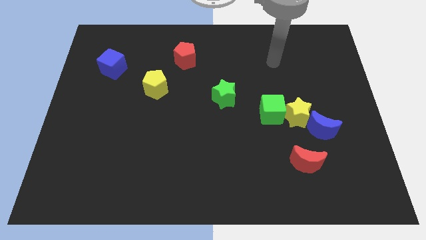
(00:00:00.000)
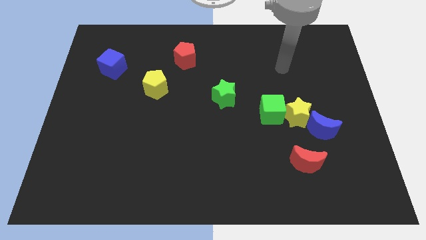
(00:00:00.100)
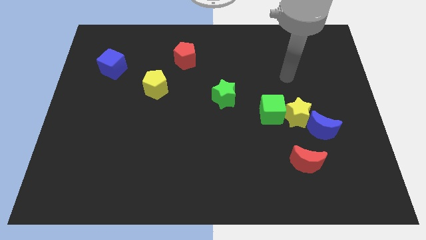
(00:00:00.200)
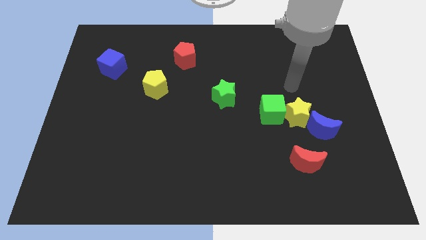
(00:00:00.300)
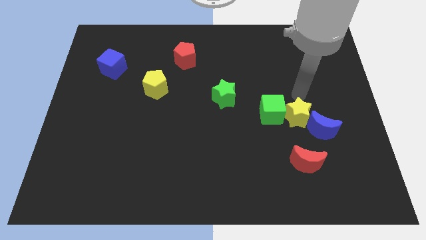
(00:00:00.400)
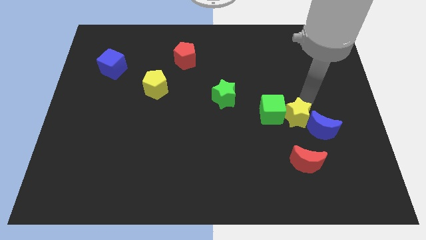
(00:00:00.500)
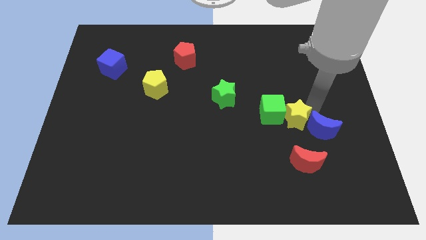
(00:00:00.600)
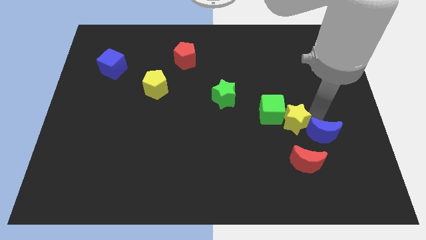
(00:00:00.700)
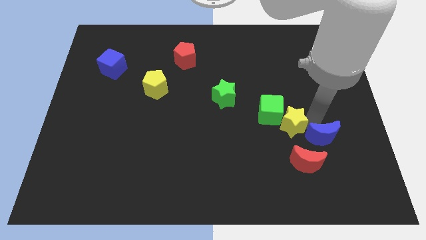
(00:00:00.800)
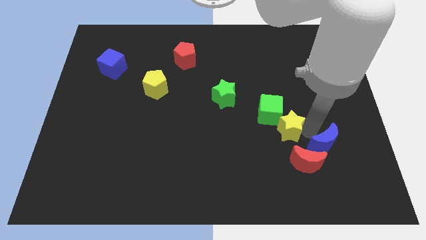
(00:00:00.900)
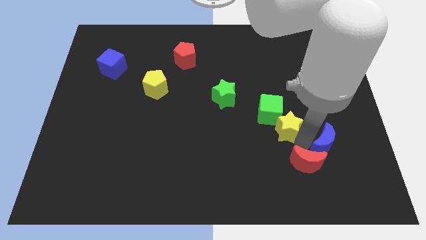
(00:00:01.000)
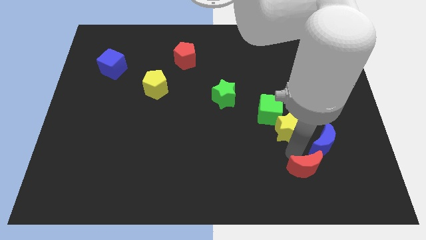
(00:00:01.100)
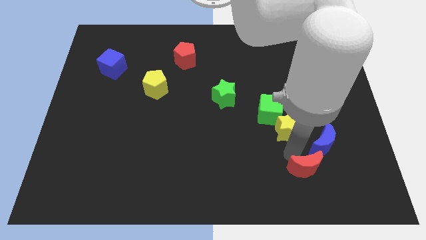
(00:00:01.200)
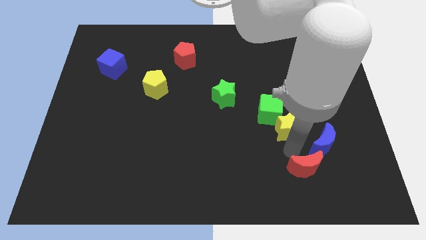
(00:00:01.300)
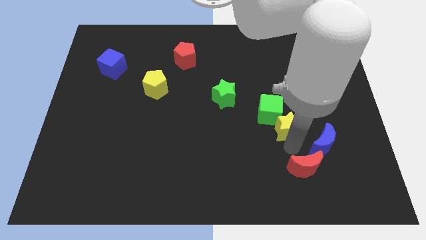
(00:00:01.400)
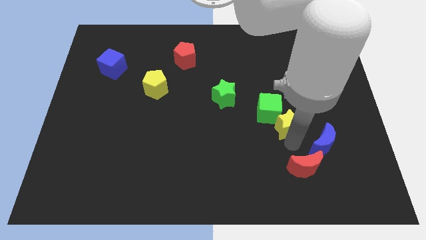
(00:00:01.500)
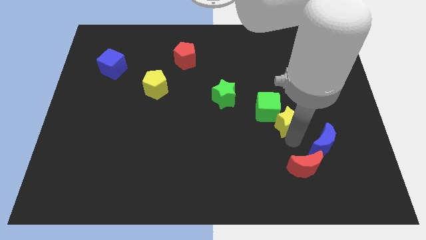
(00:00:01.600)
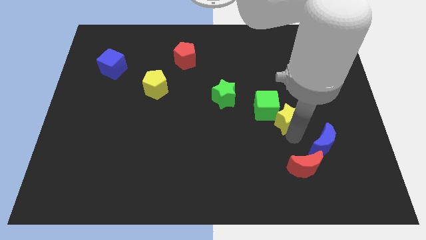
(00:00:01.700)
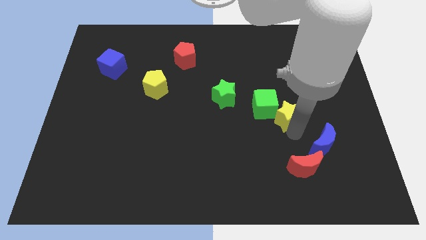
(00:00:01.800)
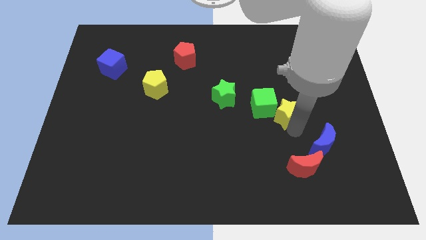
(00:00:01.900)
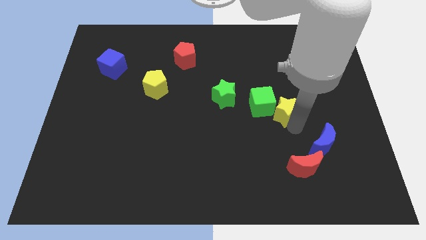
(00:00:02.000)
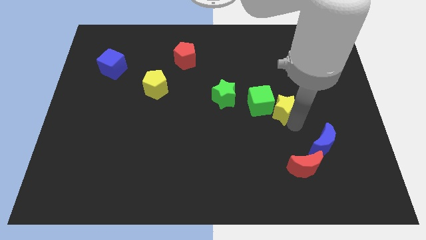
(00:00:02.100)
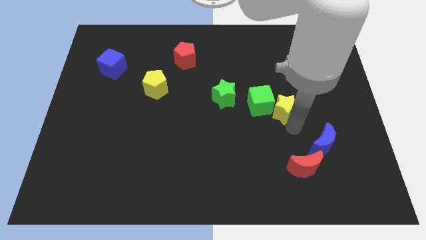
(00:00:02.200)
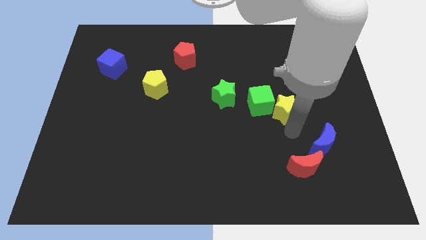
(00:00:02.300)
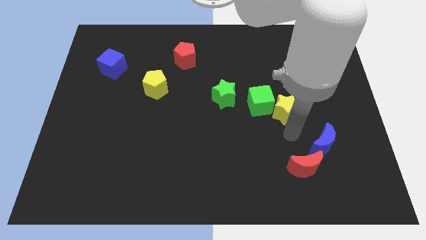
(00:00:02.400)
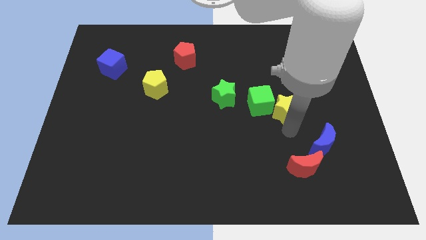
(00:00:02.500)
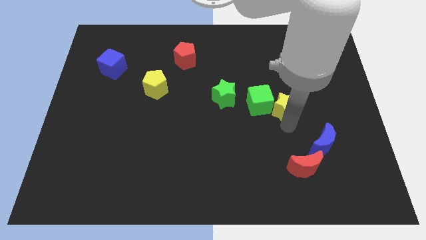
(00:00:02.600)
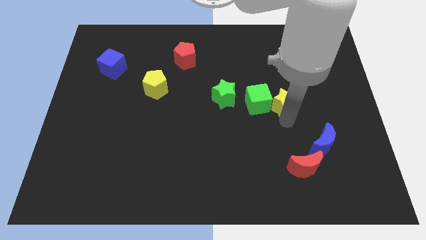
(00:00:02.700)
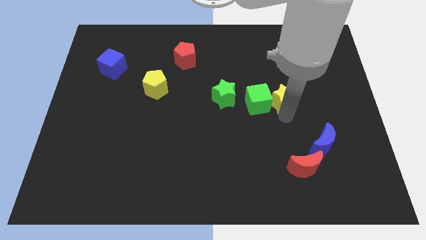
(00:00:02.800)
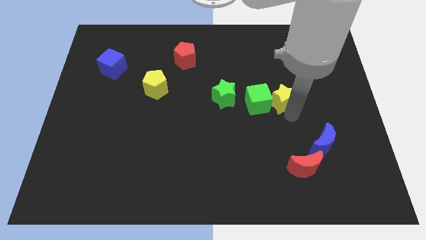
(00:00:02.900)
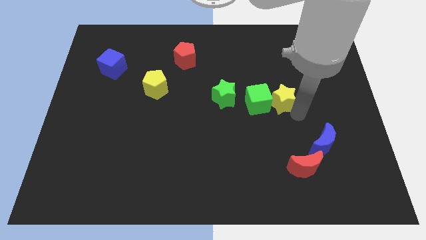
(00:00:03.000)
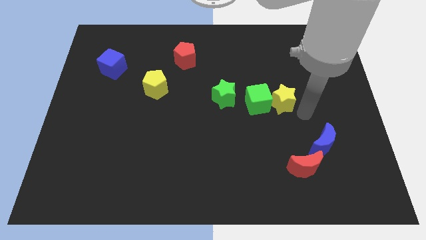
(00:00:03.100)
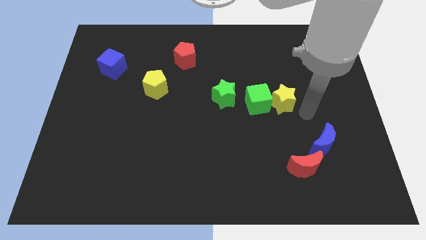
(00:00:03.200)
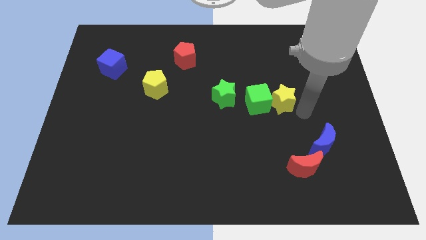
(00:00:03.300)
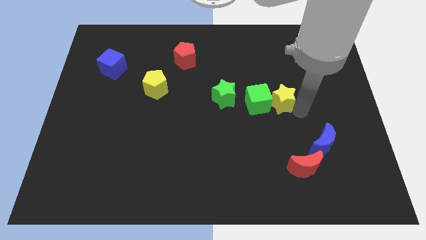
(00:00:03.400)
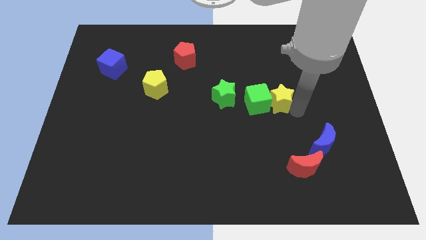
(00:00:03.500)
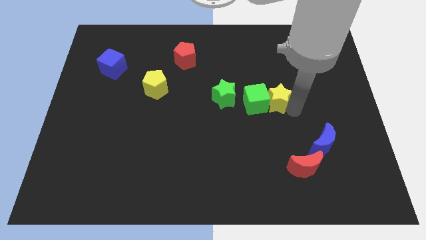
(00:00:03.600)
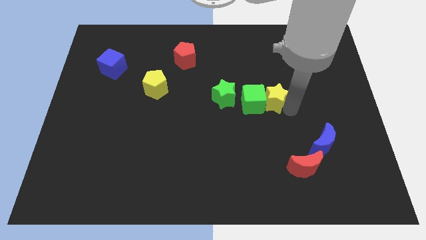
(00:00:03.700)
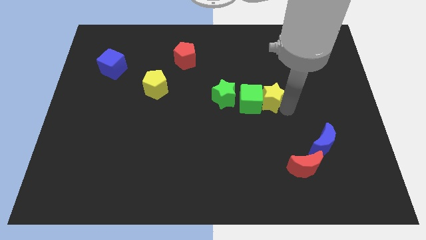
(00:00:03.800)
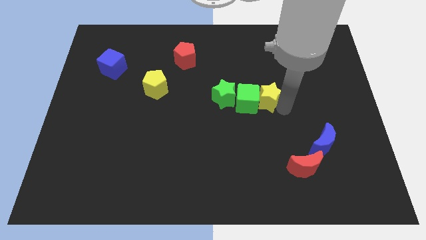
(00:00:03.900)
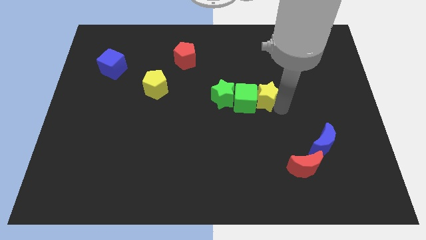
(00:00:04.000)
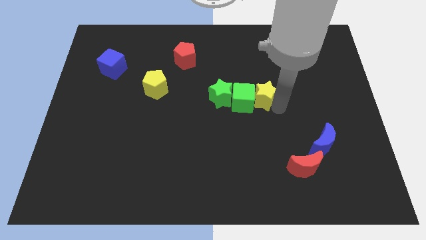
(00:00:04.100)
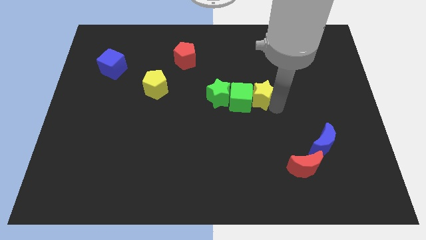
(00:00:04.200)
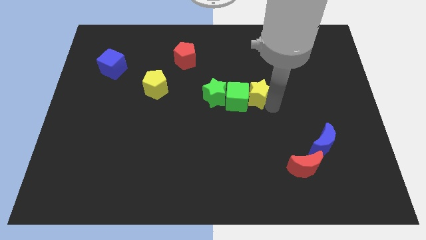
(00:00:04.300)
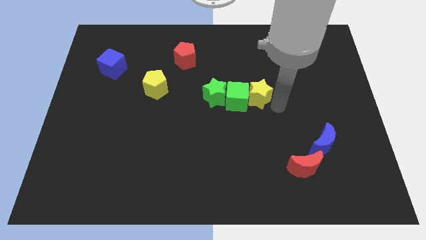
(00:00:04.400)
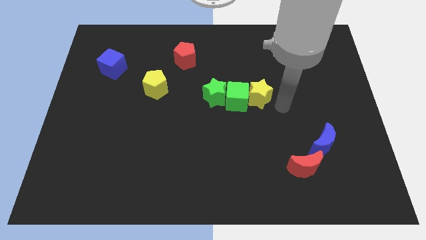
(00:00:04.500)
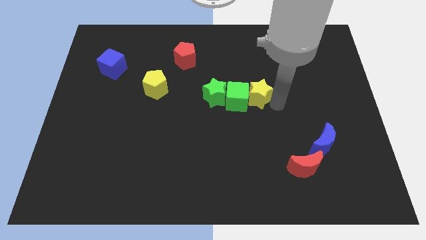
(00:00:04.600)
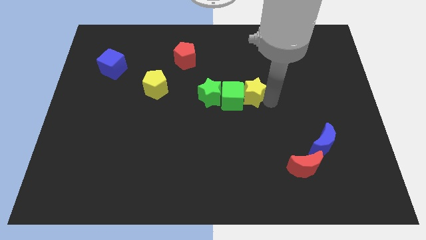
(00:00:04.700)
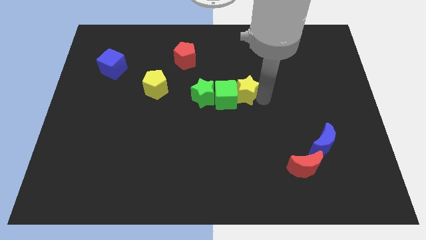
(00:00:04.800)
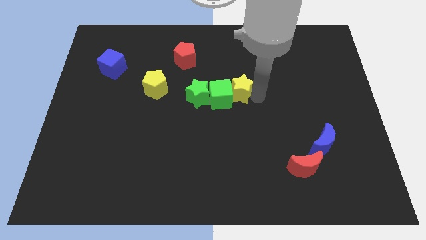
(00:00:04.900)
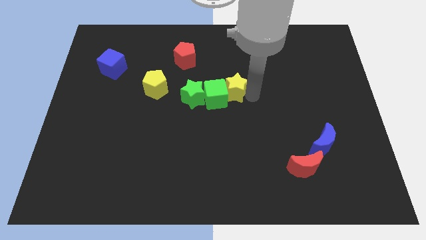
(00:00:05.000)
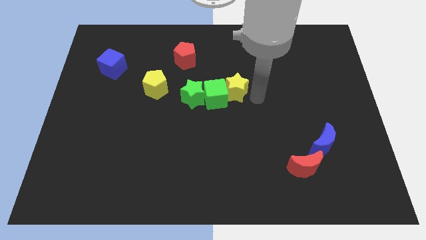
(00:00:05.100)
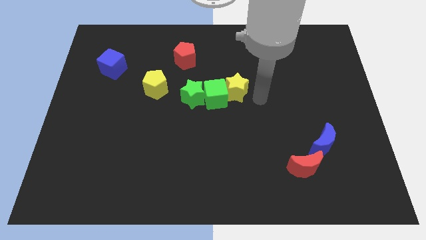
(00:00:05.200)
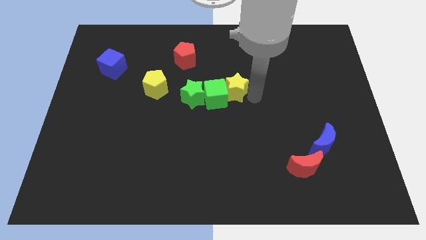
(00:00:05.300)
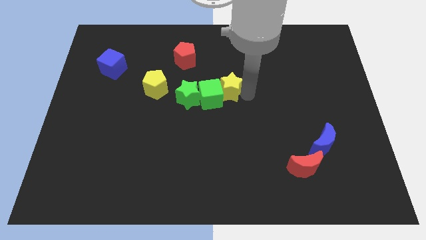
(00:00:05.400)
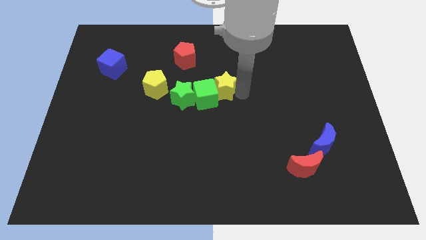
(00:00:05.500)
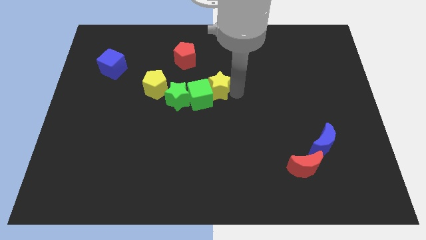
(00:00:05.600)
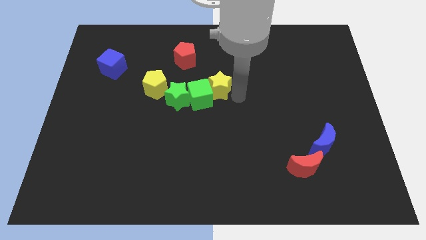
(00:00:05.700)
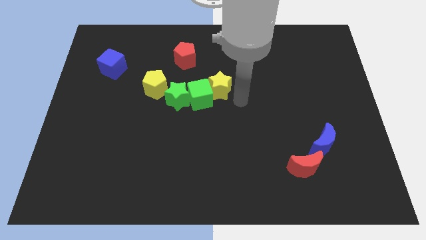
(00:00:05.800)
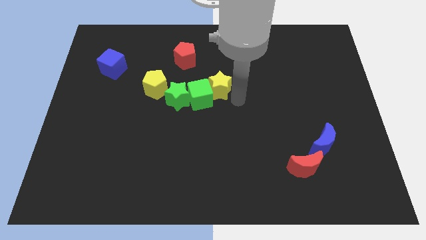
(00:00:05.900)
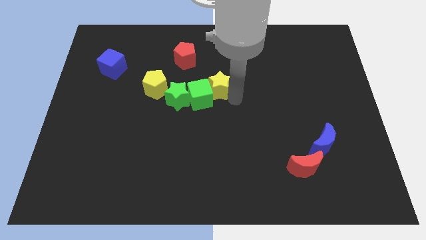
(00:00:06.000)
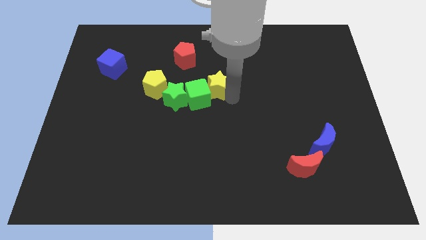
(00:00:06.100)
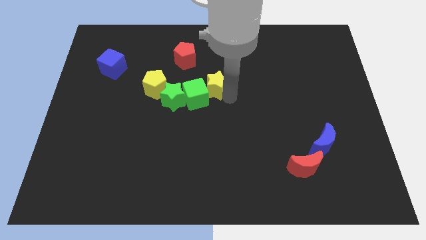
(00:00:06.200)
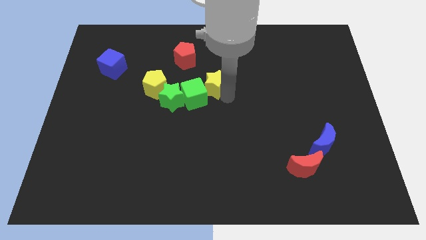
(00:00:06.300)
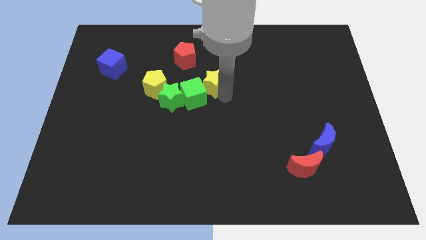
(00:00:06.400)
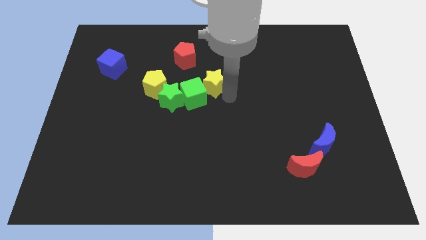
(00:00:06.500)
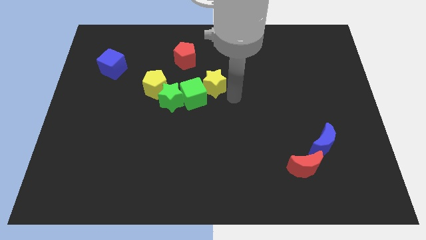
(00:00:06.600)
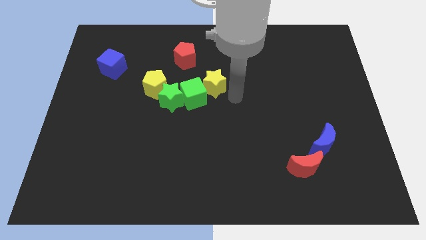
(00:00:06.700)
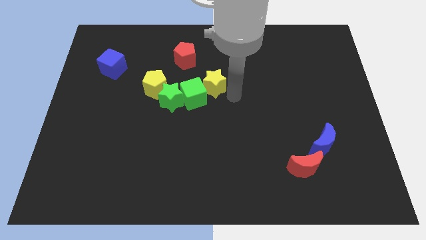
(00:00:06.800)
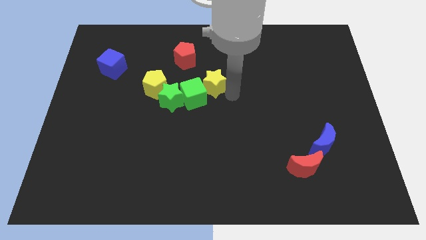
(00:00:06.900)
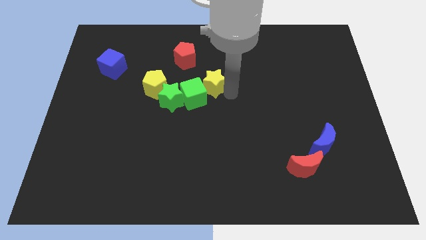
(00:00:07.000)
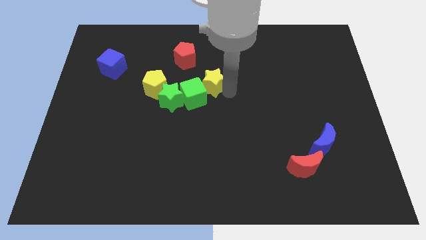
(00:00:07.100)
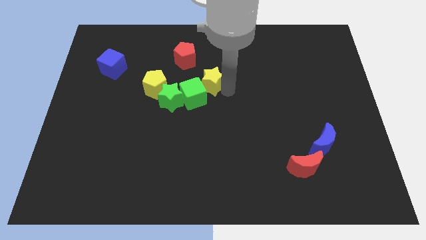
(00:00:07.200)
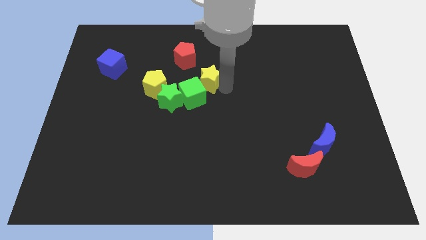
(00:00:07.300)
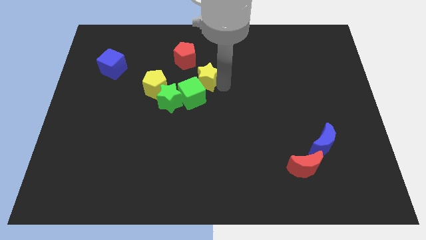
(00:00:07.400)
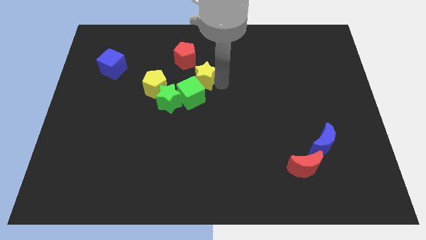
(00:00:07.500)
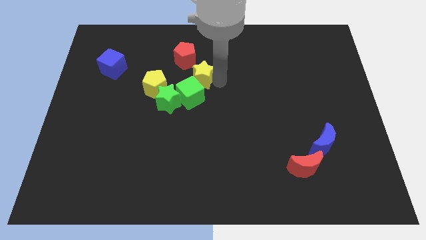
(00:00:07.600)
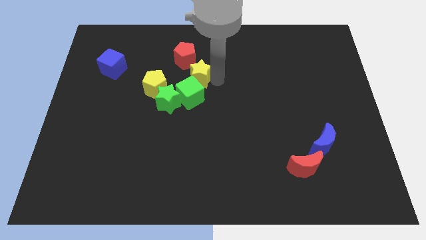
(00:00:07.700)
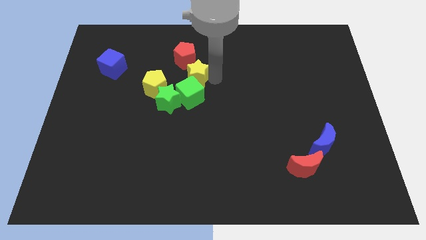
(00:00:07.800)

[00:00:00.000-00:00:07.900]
slide the yellow star to the top right side of the yellow pentagon
